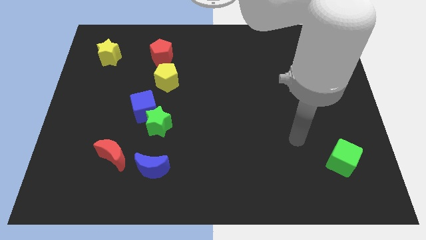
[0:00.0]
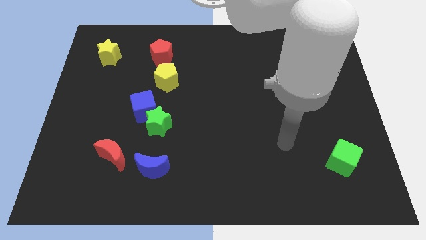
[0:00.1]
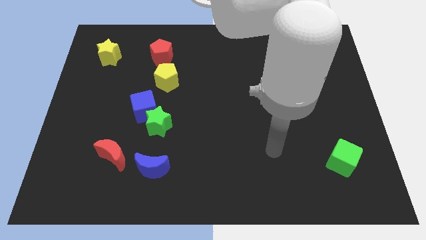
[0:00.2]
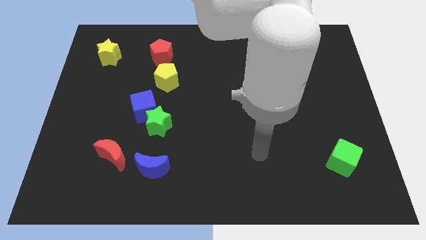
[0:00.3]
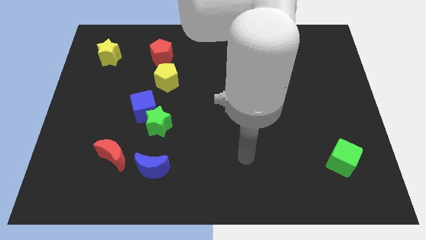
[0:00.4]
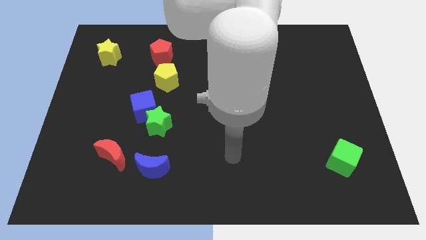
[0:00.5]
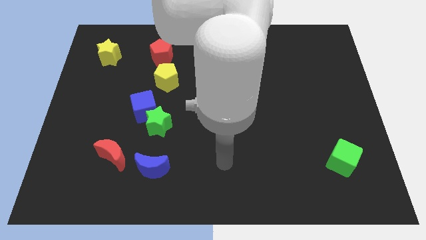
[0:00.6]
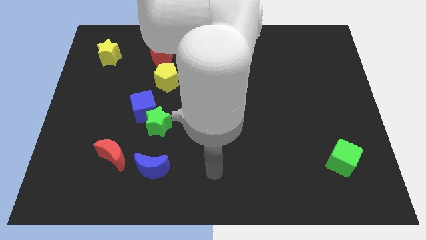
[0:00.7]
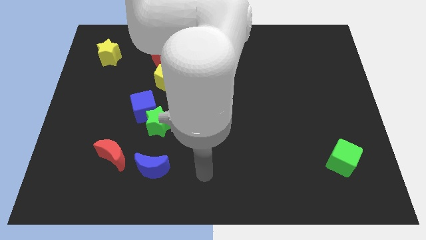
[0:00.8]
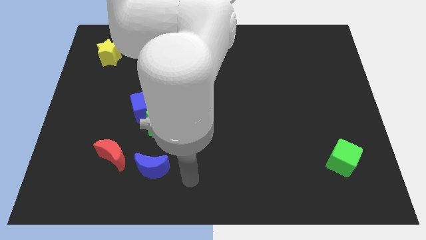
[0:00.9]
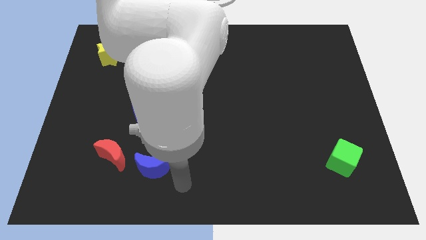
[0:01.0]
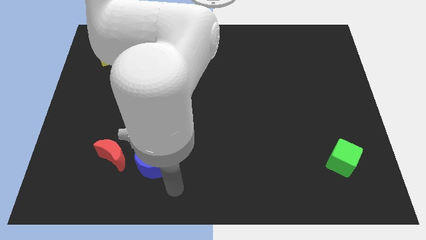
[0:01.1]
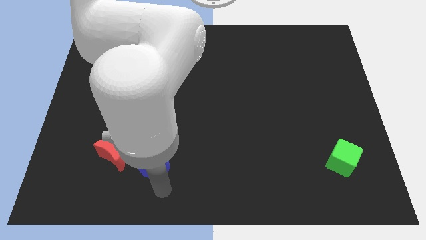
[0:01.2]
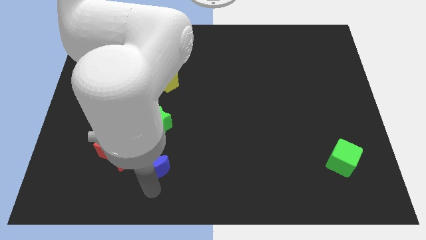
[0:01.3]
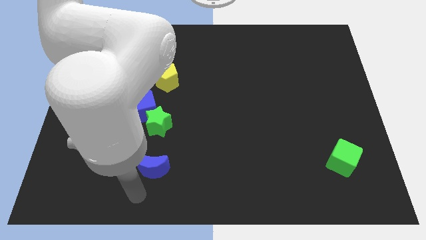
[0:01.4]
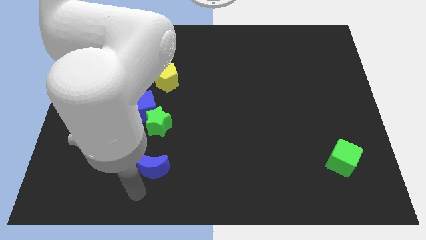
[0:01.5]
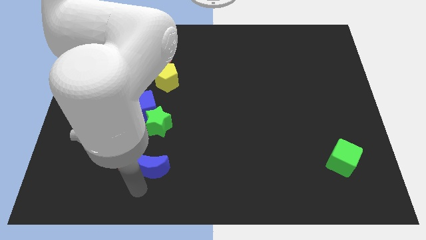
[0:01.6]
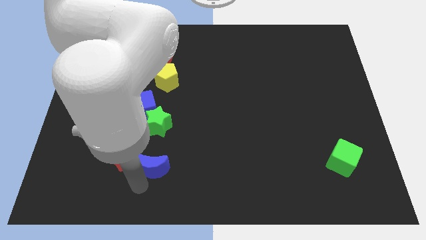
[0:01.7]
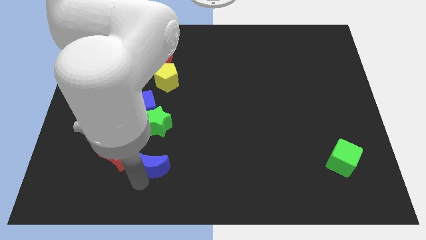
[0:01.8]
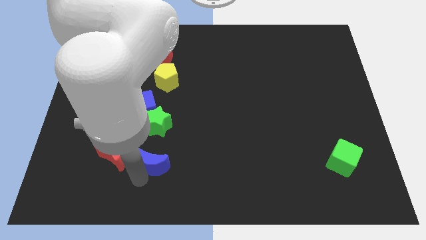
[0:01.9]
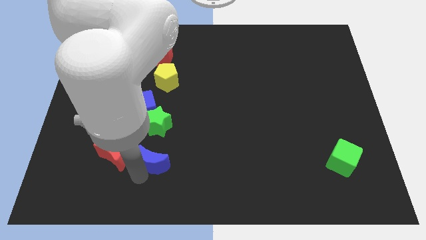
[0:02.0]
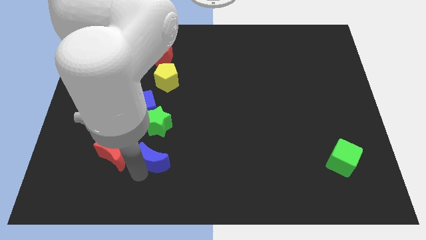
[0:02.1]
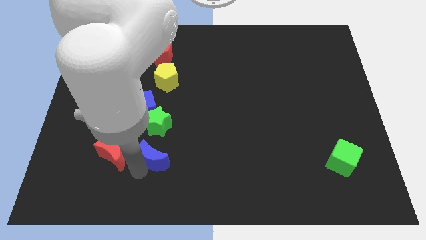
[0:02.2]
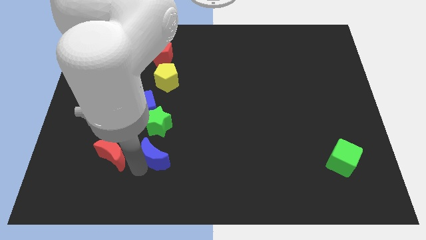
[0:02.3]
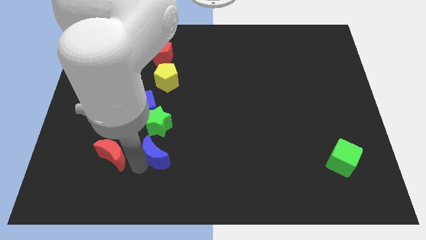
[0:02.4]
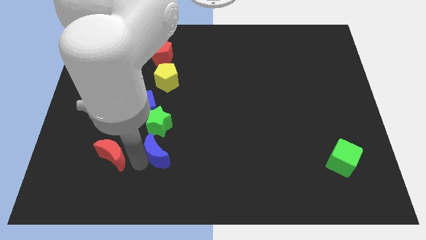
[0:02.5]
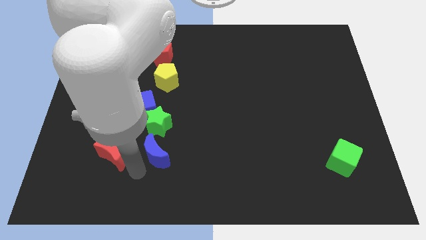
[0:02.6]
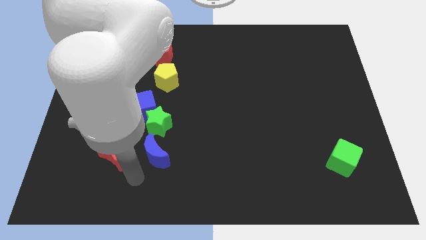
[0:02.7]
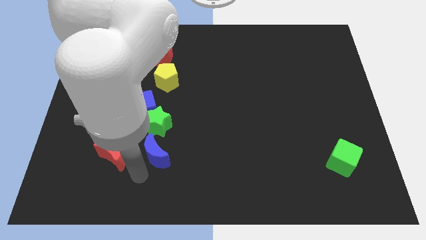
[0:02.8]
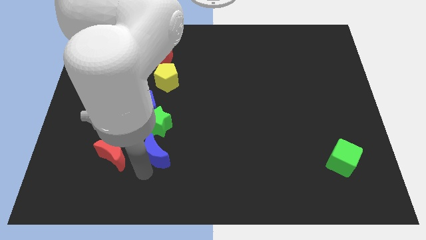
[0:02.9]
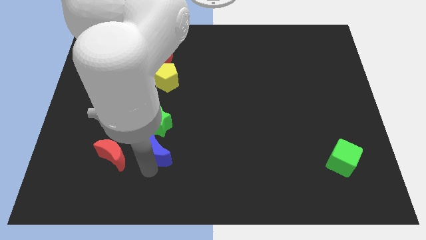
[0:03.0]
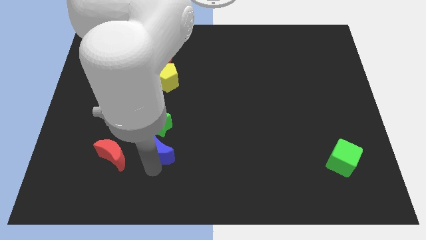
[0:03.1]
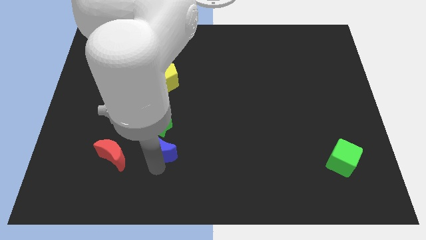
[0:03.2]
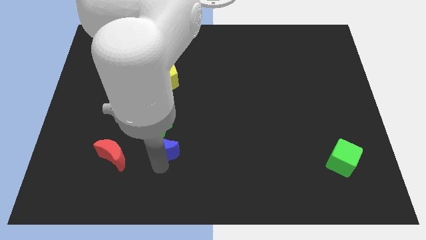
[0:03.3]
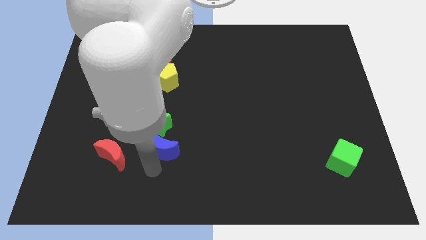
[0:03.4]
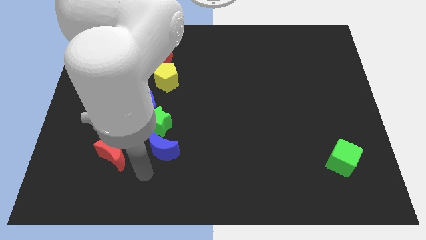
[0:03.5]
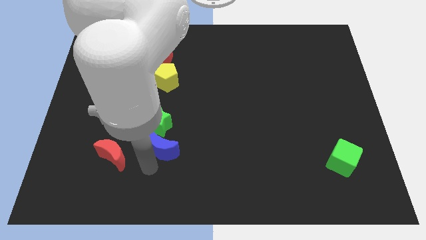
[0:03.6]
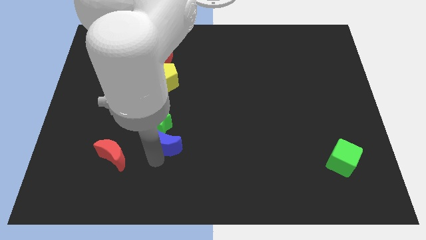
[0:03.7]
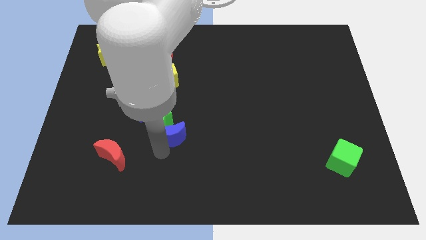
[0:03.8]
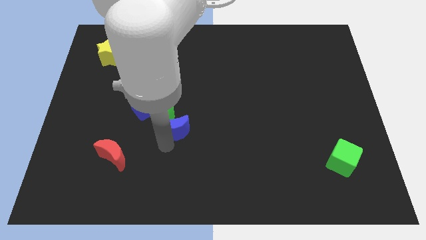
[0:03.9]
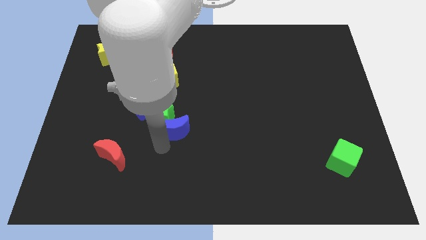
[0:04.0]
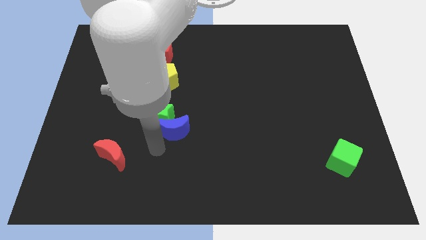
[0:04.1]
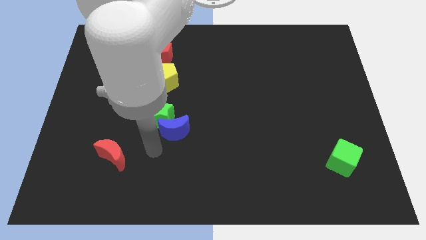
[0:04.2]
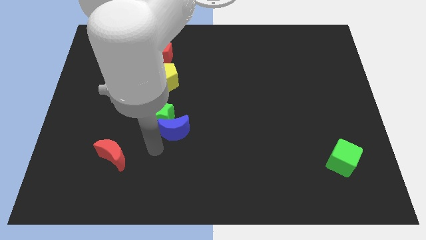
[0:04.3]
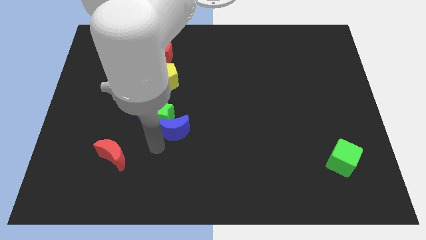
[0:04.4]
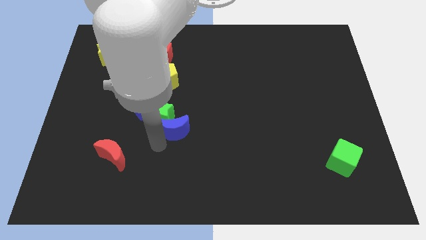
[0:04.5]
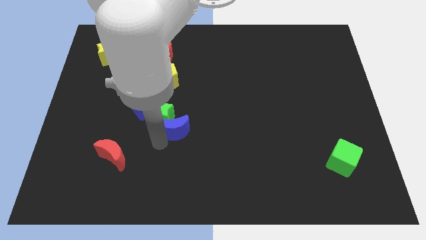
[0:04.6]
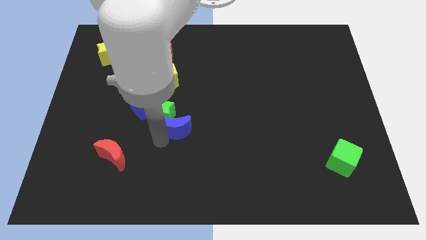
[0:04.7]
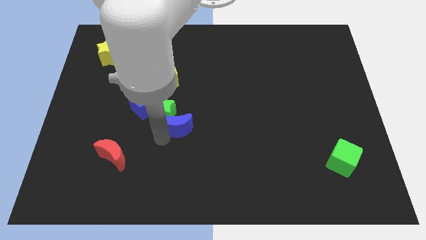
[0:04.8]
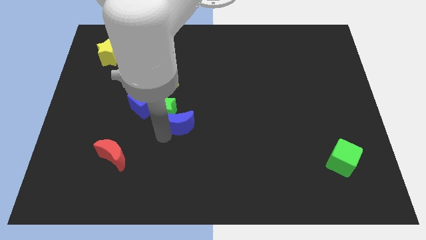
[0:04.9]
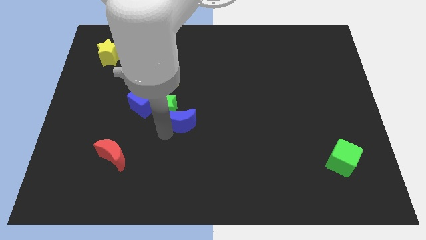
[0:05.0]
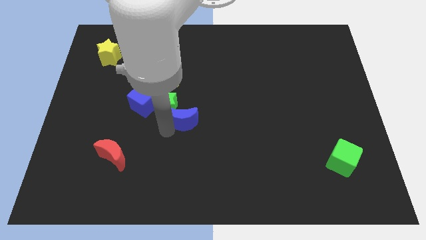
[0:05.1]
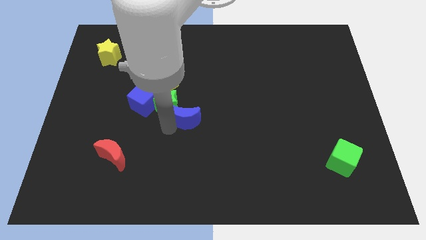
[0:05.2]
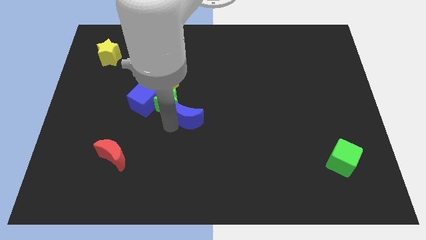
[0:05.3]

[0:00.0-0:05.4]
put the blue moon to the right side of the blue cube

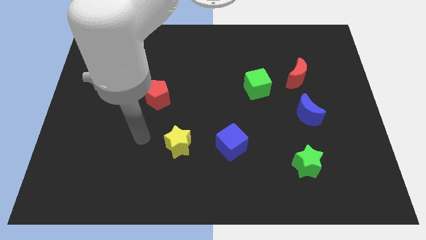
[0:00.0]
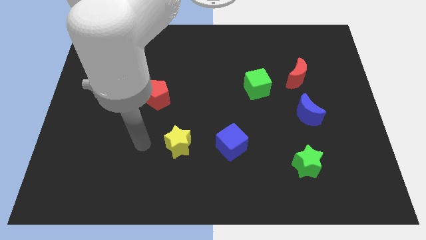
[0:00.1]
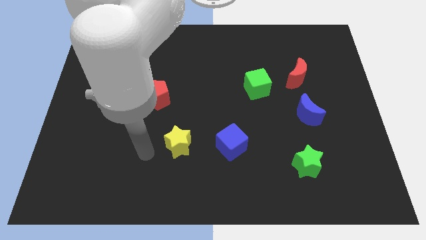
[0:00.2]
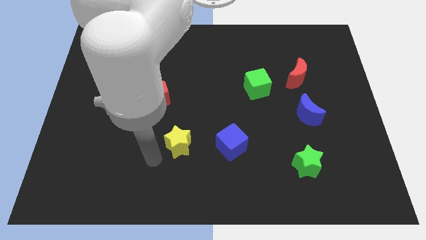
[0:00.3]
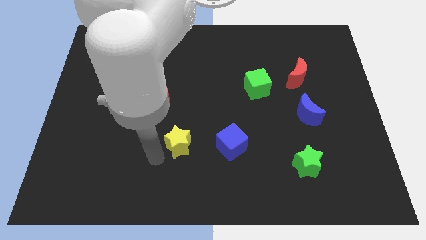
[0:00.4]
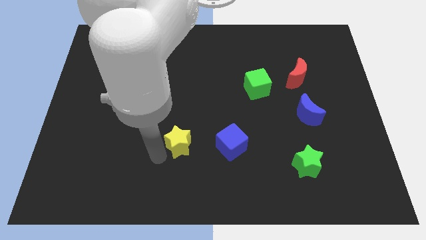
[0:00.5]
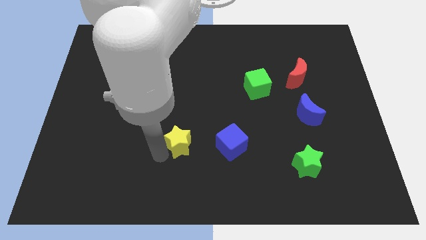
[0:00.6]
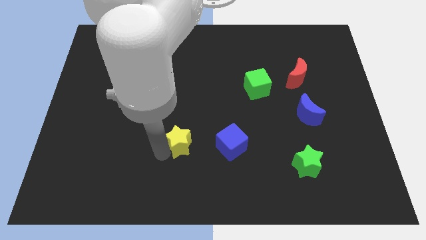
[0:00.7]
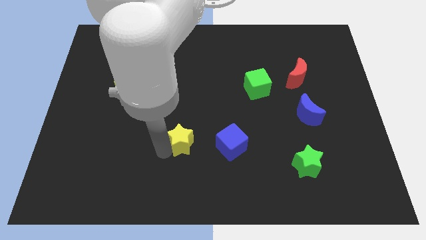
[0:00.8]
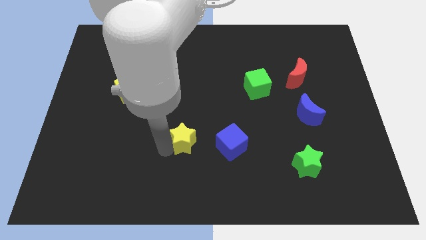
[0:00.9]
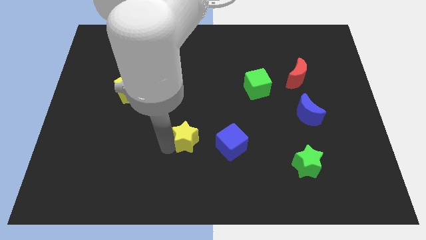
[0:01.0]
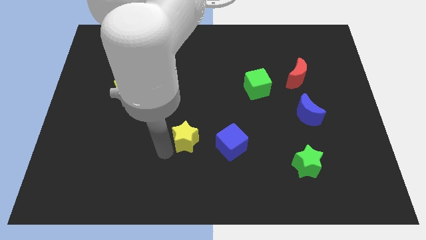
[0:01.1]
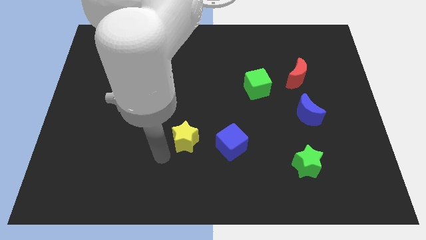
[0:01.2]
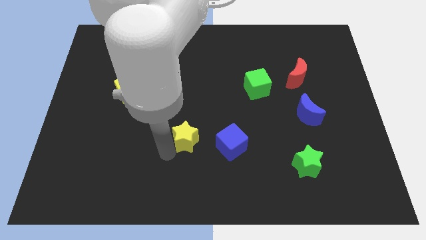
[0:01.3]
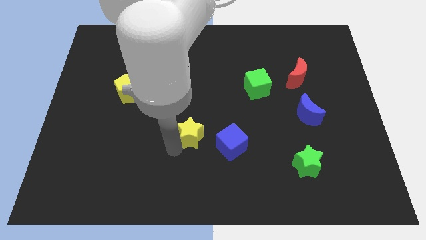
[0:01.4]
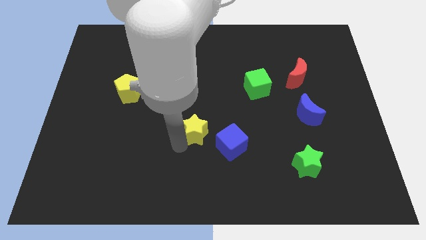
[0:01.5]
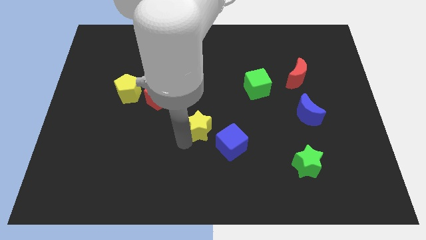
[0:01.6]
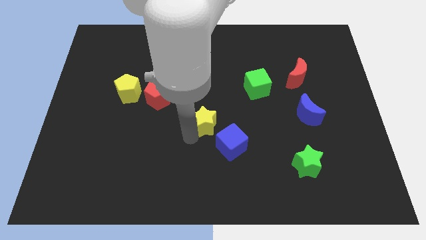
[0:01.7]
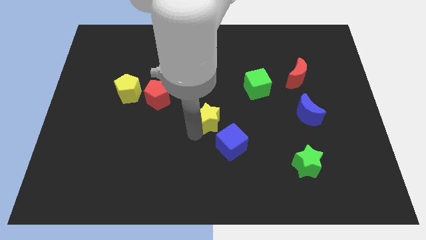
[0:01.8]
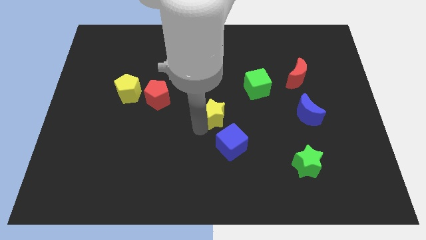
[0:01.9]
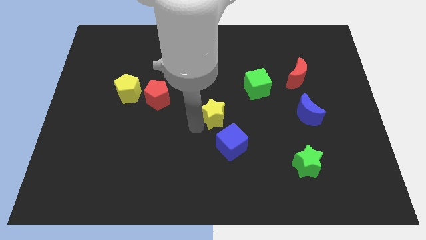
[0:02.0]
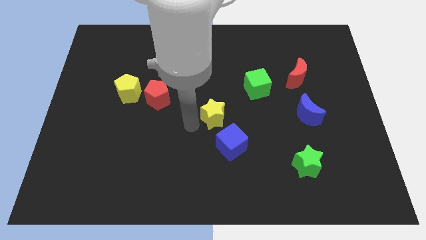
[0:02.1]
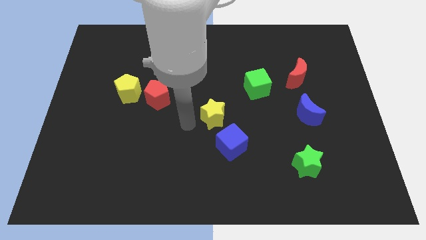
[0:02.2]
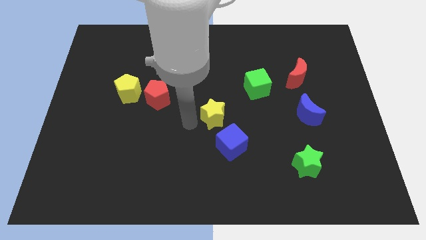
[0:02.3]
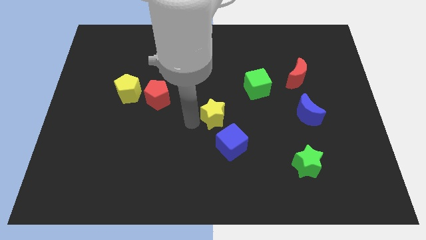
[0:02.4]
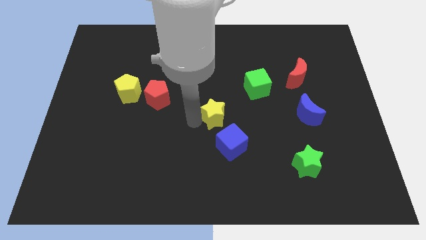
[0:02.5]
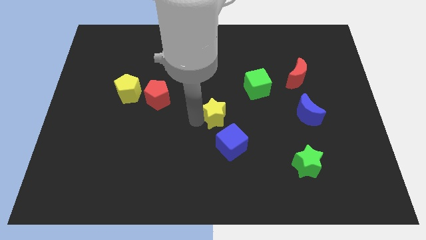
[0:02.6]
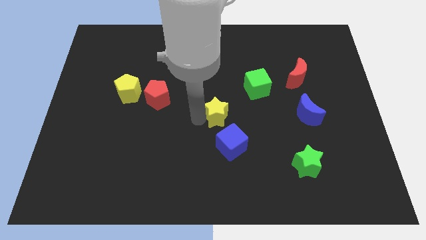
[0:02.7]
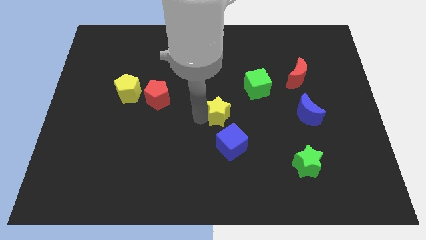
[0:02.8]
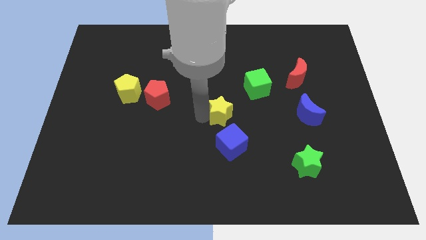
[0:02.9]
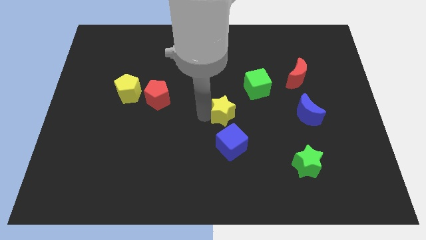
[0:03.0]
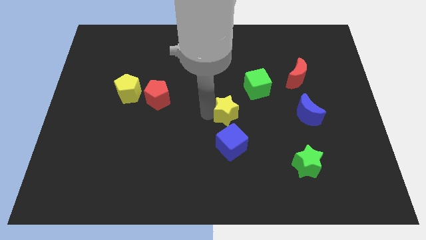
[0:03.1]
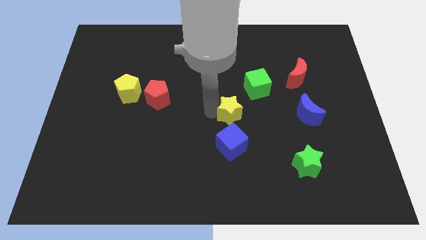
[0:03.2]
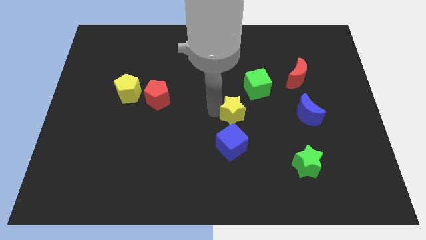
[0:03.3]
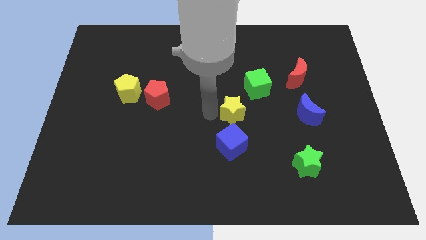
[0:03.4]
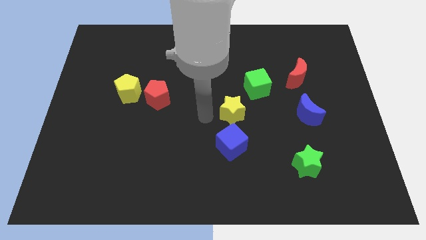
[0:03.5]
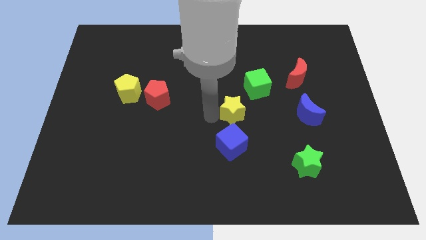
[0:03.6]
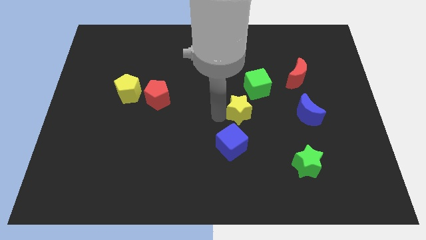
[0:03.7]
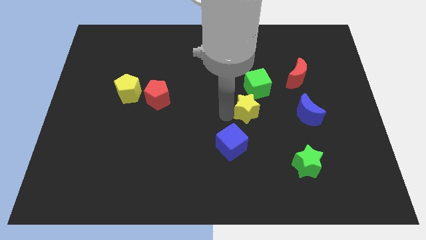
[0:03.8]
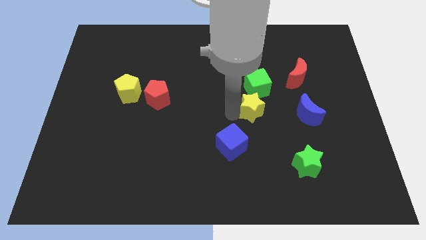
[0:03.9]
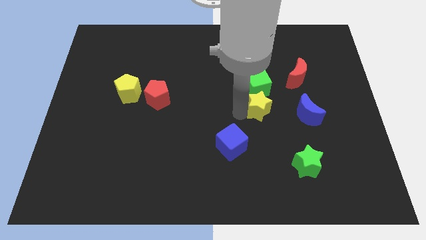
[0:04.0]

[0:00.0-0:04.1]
slide the yellow star diagonally down and to the right of the green cube
